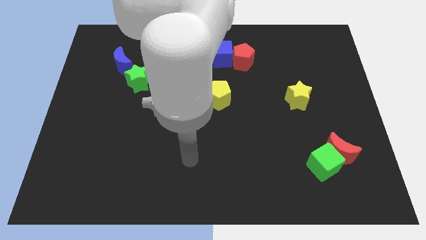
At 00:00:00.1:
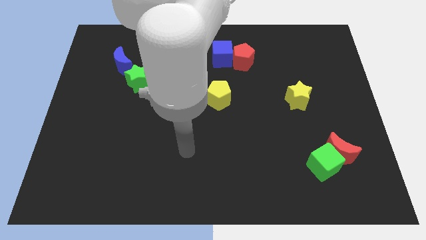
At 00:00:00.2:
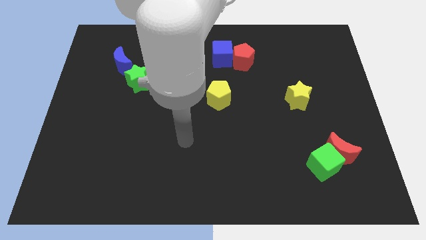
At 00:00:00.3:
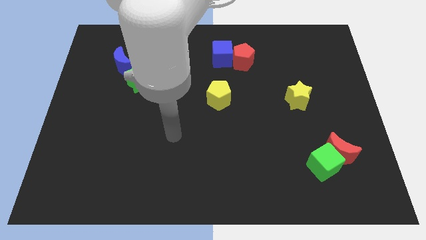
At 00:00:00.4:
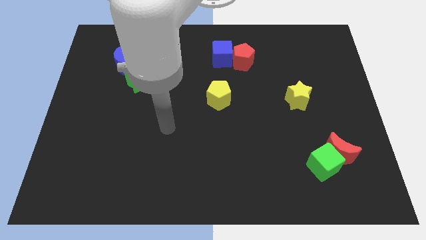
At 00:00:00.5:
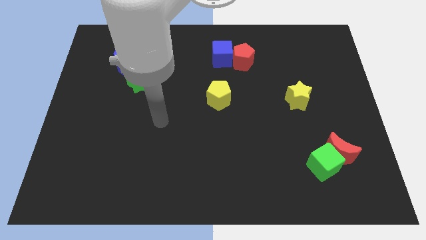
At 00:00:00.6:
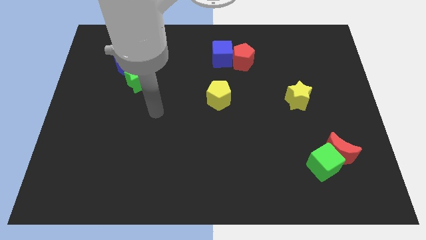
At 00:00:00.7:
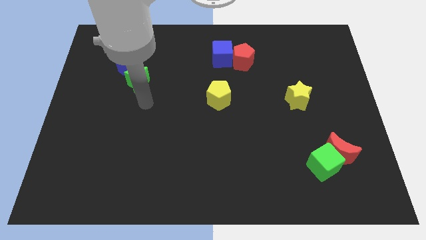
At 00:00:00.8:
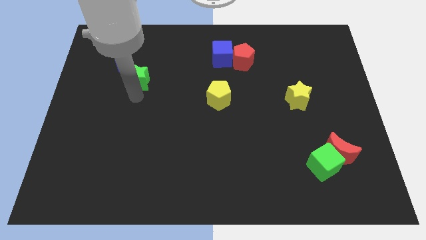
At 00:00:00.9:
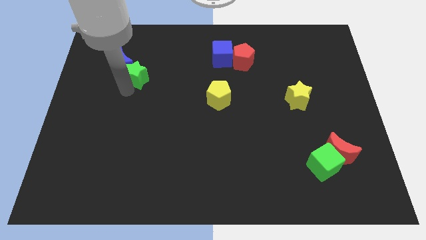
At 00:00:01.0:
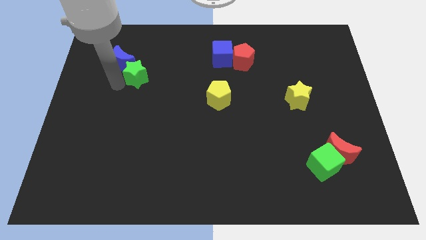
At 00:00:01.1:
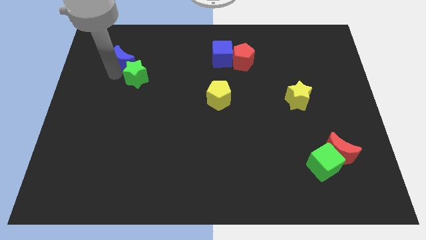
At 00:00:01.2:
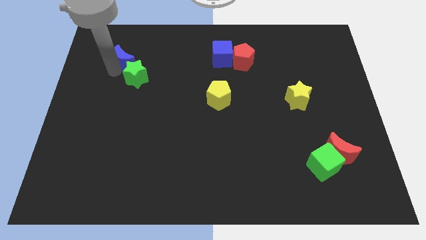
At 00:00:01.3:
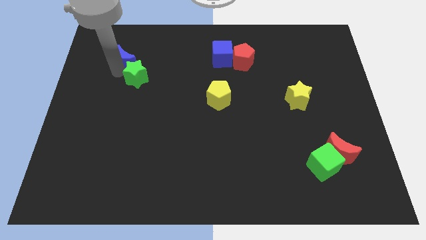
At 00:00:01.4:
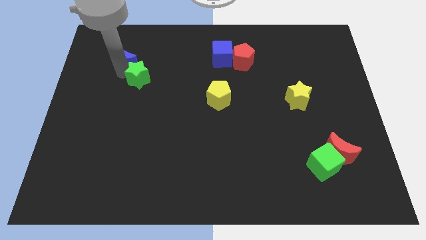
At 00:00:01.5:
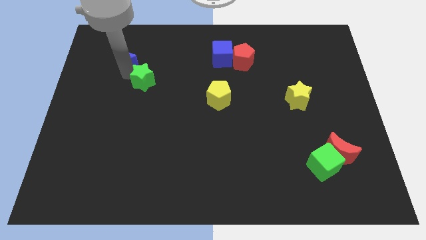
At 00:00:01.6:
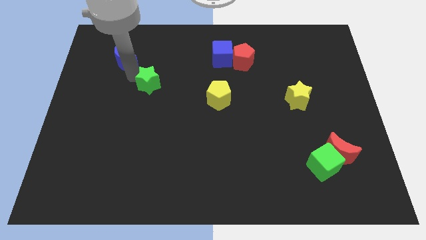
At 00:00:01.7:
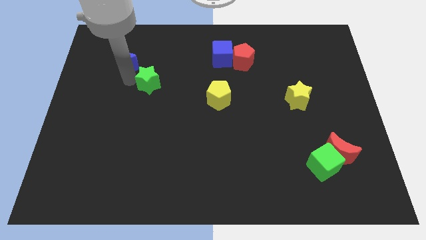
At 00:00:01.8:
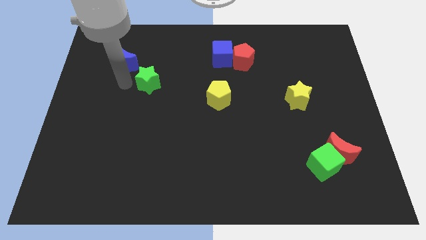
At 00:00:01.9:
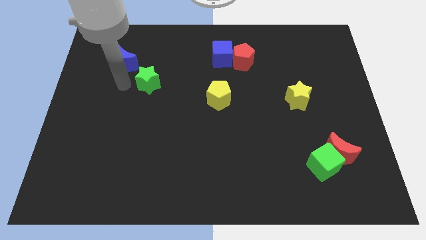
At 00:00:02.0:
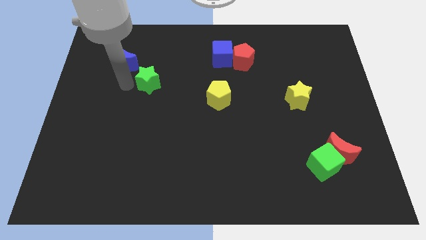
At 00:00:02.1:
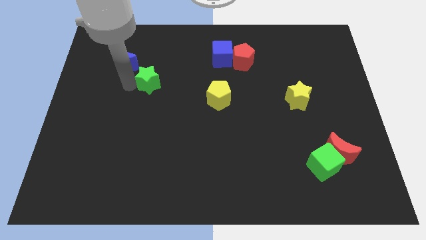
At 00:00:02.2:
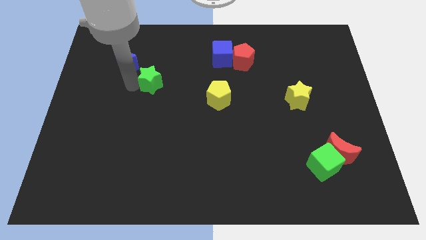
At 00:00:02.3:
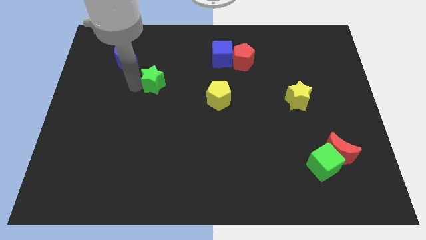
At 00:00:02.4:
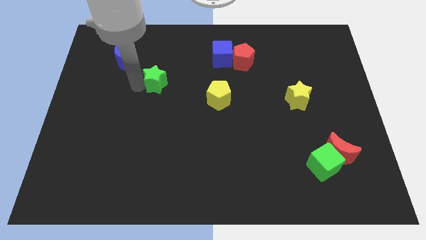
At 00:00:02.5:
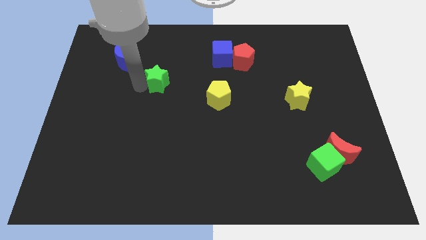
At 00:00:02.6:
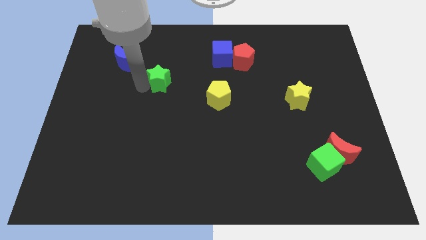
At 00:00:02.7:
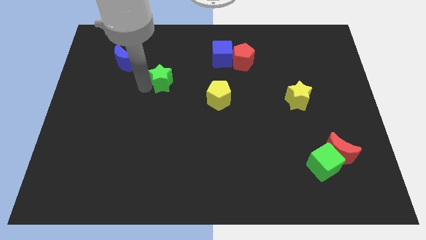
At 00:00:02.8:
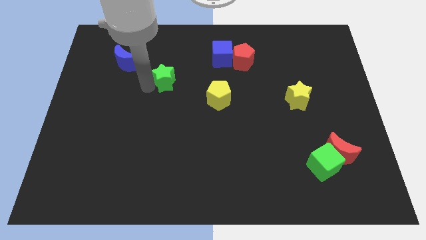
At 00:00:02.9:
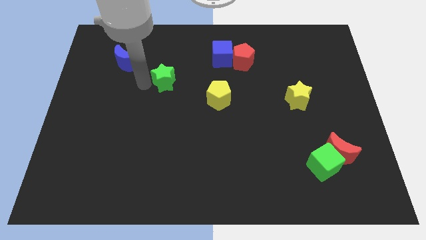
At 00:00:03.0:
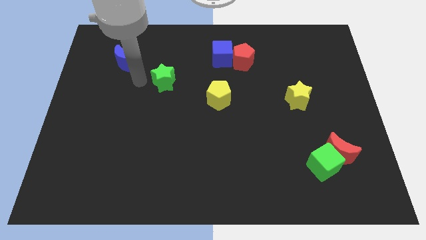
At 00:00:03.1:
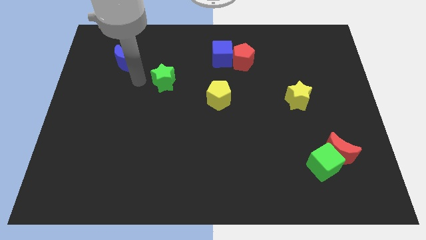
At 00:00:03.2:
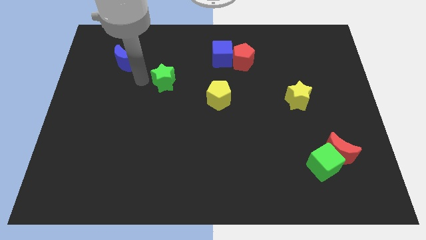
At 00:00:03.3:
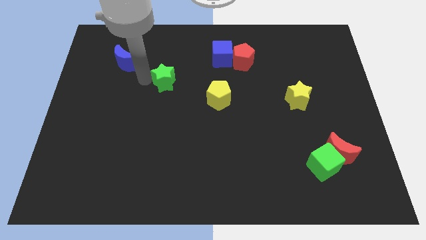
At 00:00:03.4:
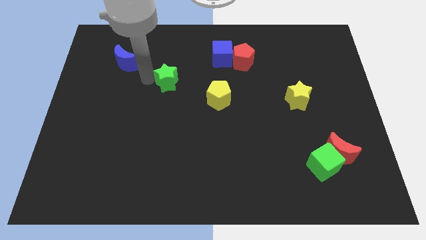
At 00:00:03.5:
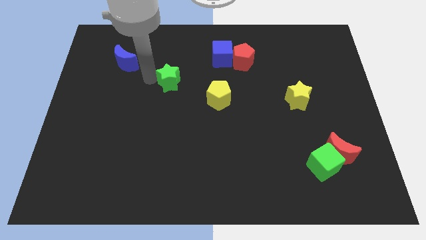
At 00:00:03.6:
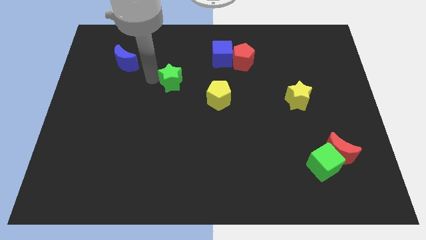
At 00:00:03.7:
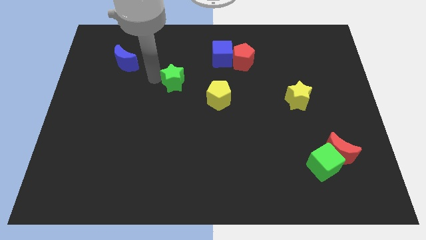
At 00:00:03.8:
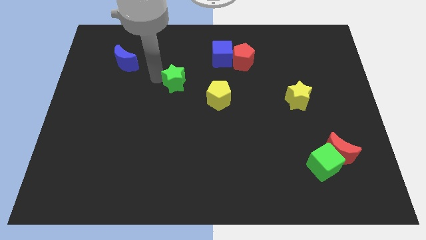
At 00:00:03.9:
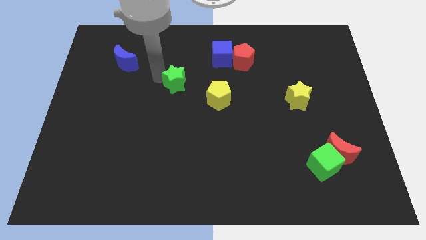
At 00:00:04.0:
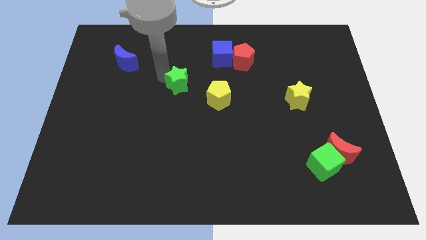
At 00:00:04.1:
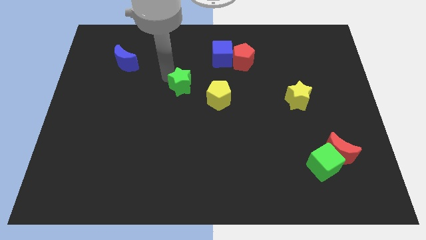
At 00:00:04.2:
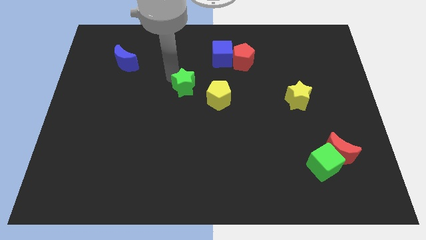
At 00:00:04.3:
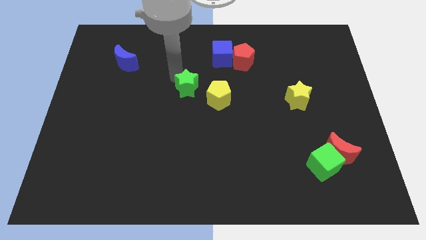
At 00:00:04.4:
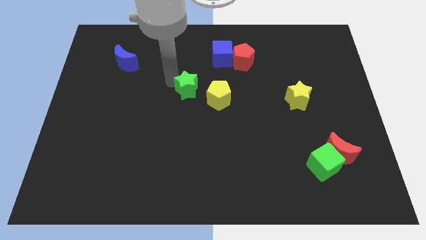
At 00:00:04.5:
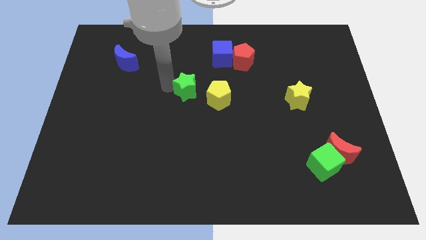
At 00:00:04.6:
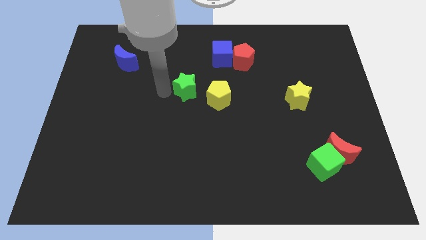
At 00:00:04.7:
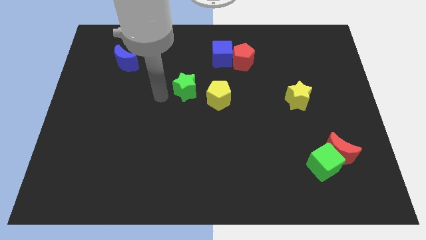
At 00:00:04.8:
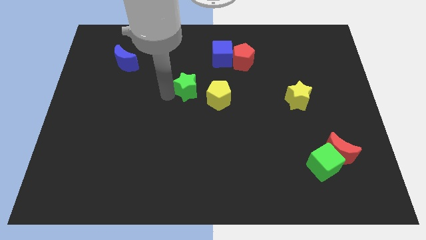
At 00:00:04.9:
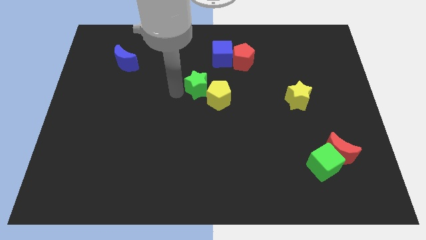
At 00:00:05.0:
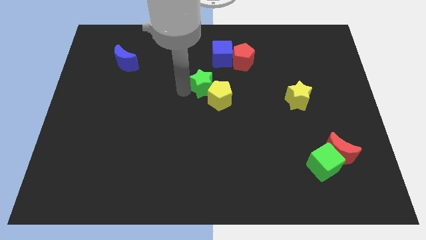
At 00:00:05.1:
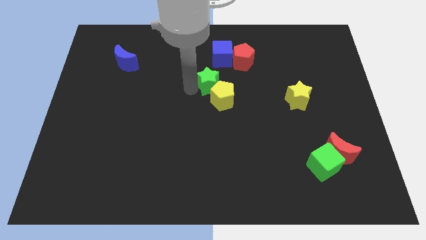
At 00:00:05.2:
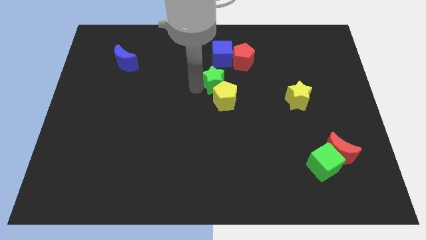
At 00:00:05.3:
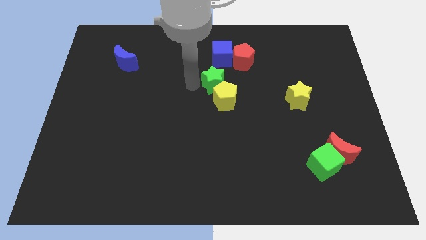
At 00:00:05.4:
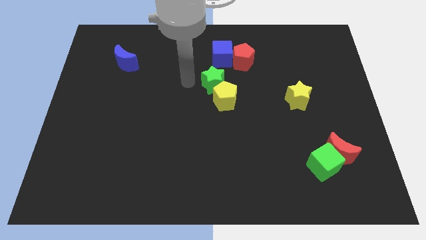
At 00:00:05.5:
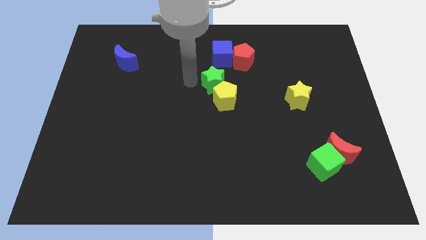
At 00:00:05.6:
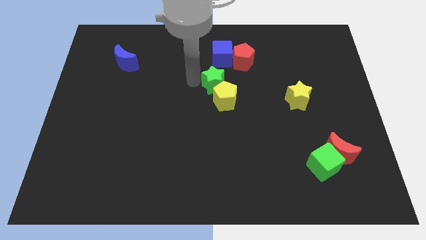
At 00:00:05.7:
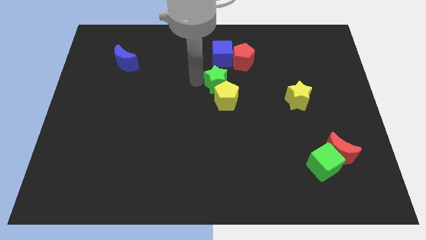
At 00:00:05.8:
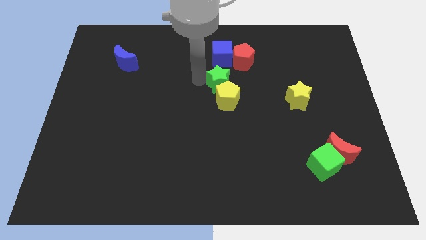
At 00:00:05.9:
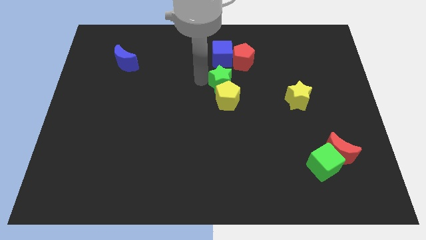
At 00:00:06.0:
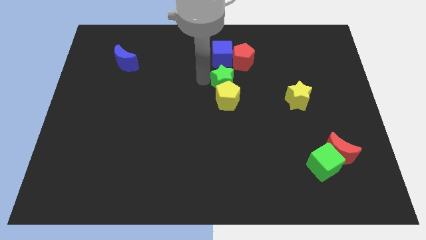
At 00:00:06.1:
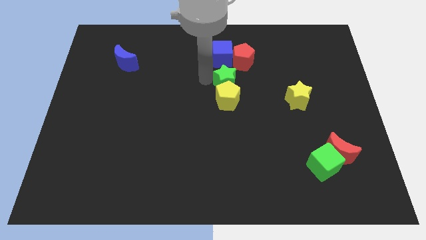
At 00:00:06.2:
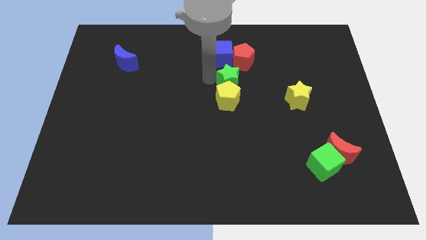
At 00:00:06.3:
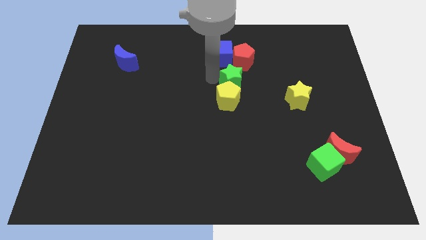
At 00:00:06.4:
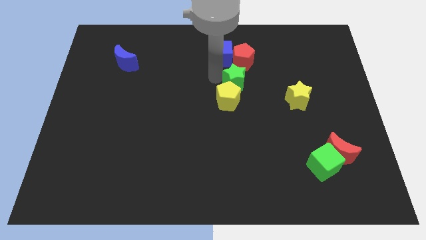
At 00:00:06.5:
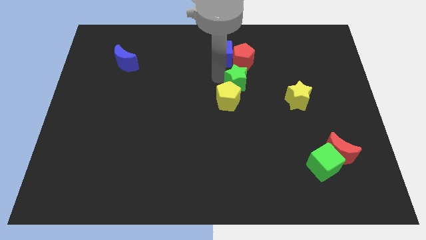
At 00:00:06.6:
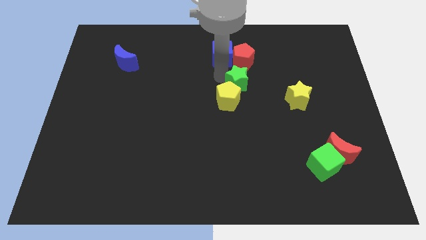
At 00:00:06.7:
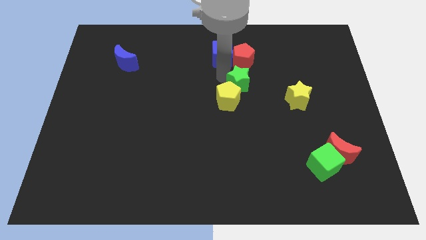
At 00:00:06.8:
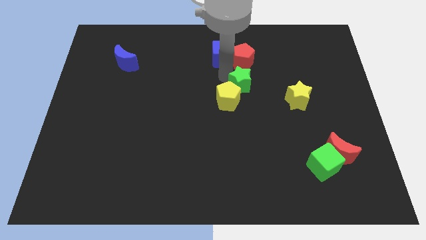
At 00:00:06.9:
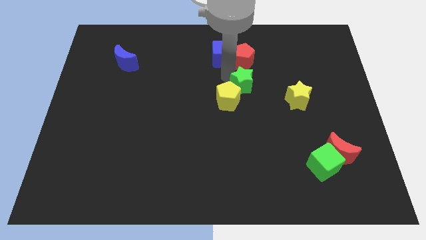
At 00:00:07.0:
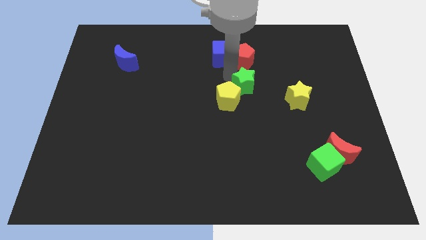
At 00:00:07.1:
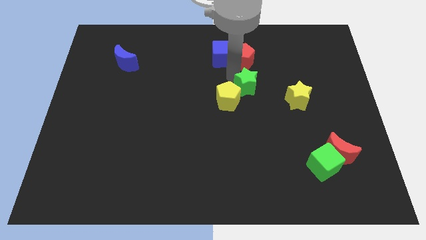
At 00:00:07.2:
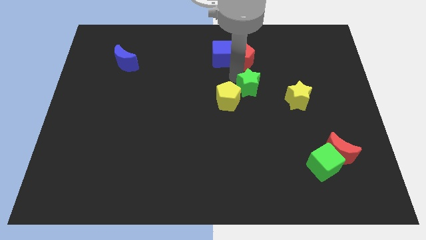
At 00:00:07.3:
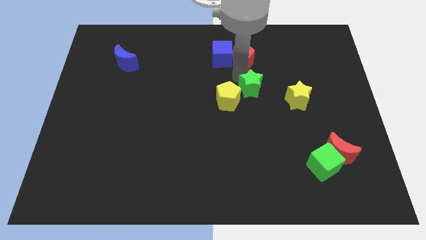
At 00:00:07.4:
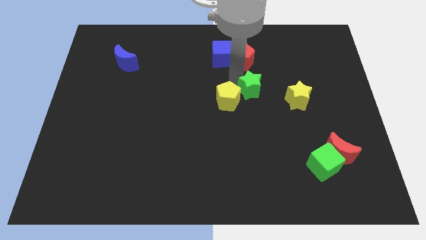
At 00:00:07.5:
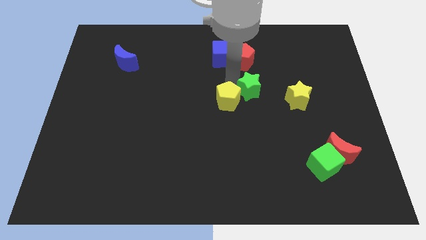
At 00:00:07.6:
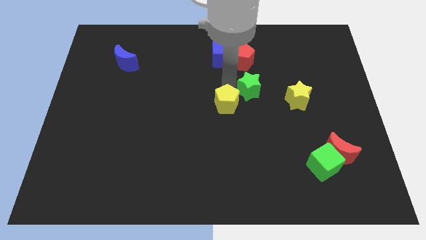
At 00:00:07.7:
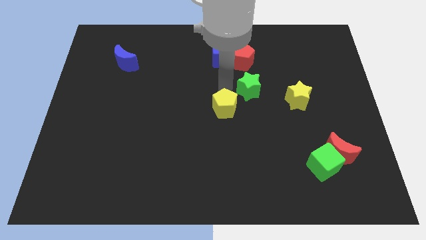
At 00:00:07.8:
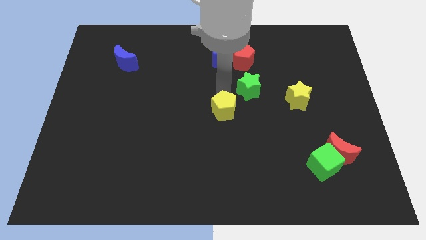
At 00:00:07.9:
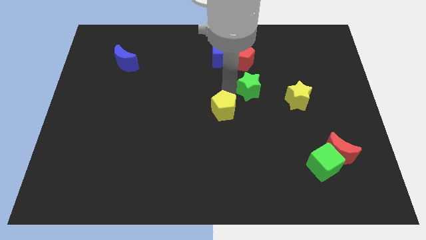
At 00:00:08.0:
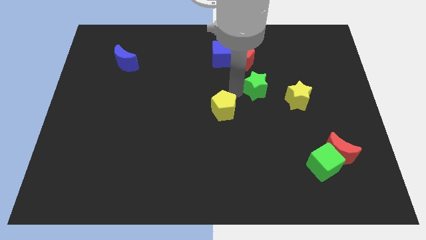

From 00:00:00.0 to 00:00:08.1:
put the green star to the top left side of the yellow star
